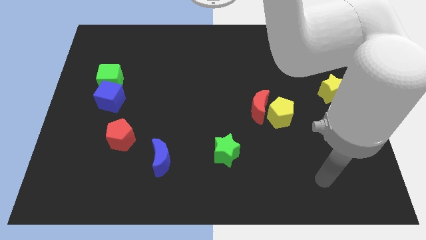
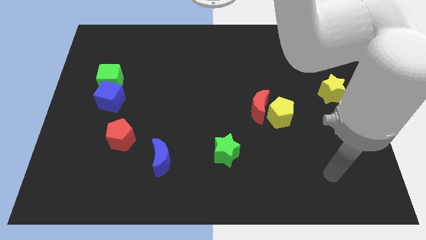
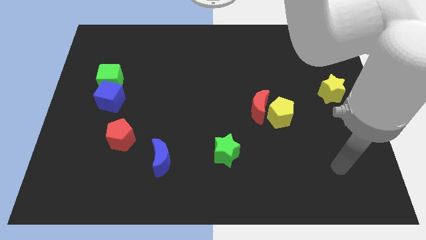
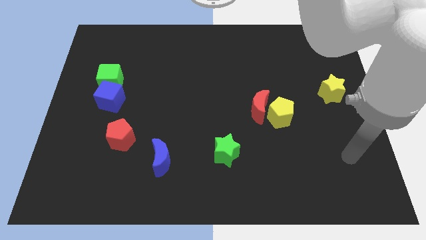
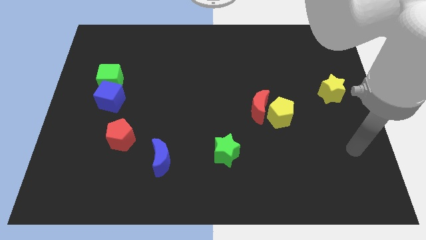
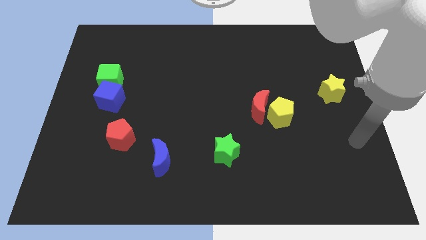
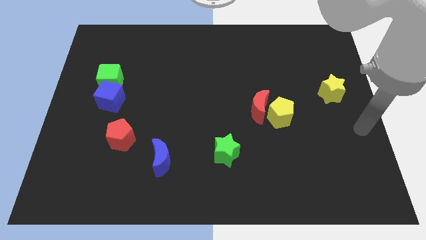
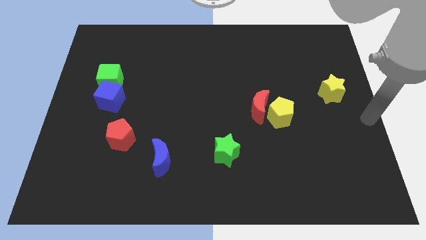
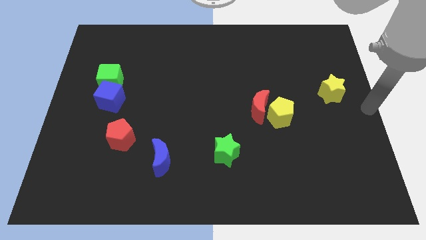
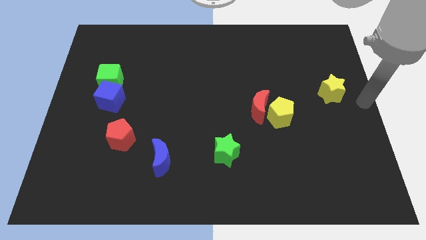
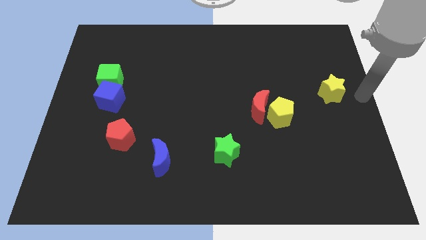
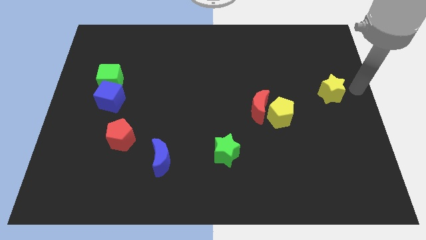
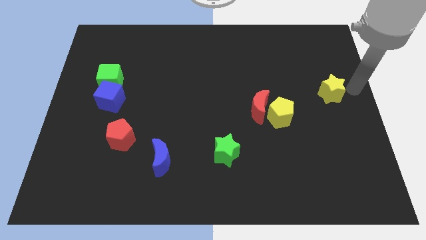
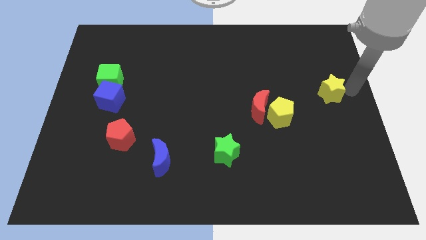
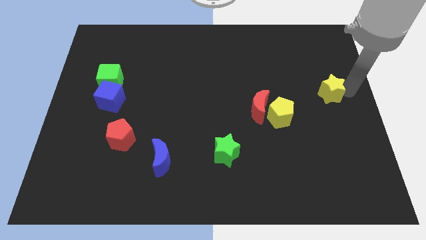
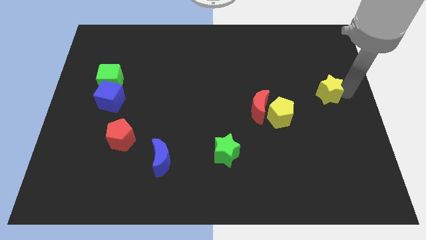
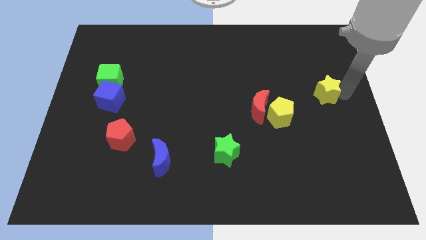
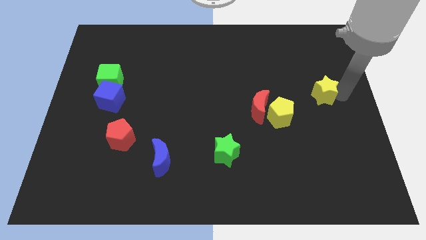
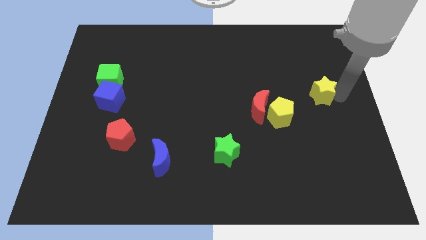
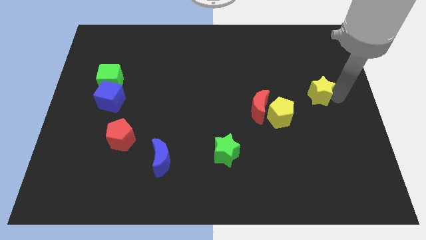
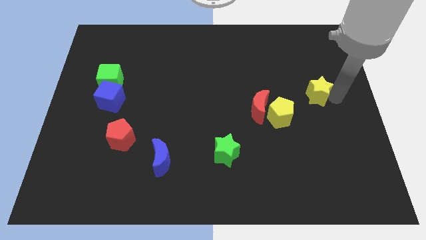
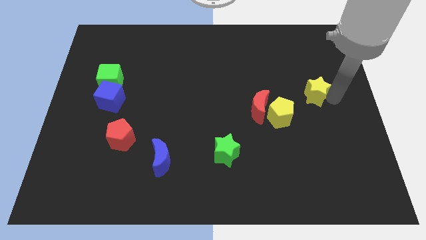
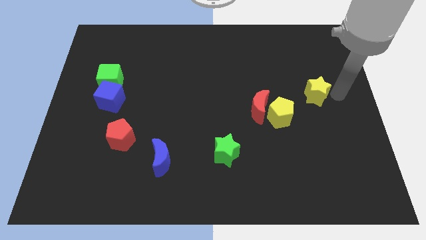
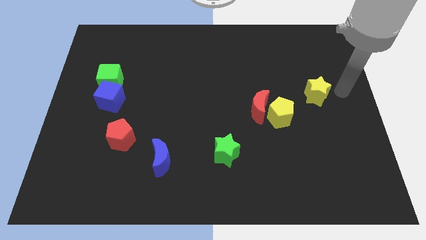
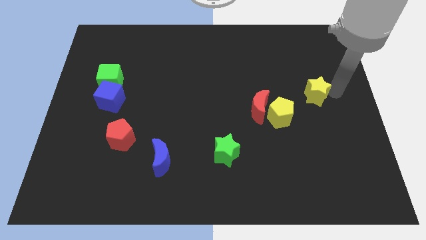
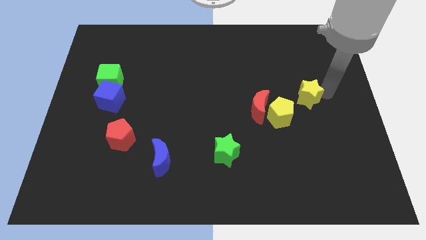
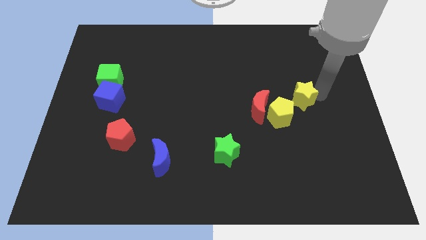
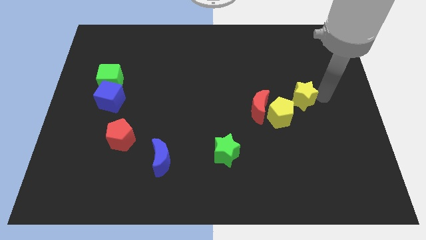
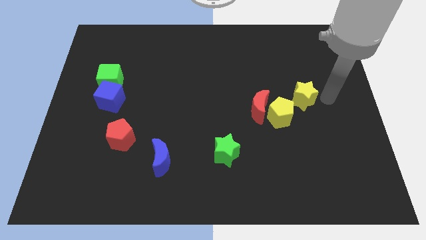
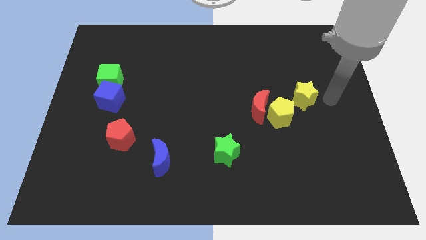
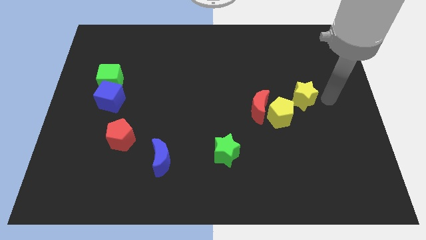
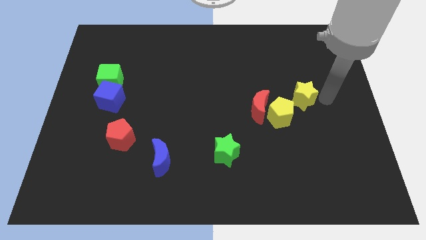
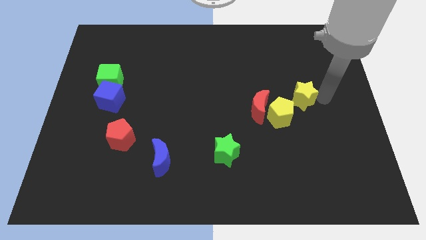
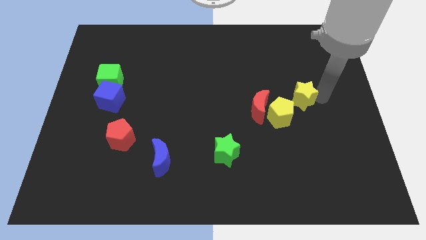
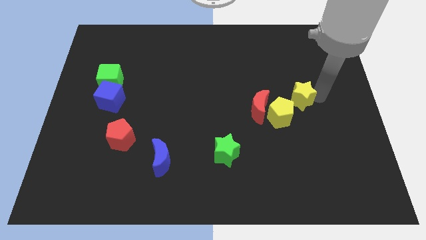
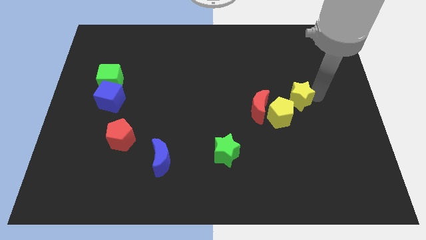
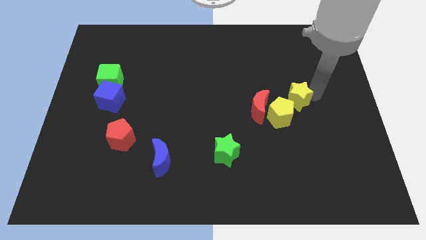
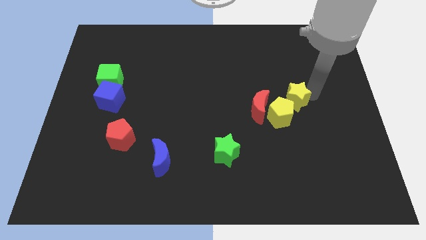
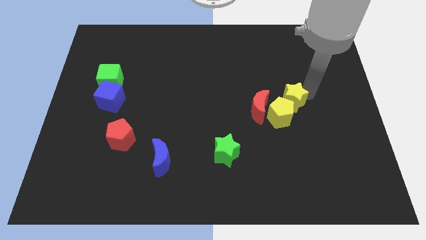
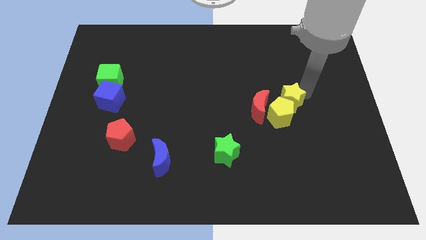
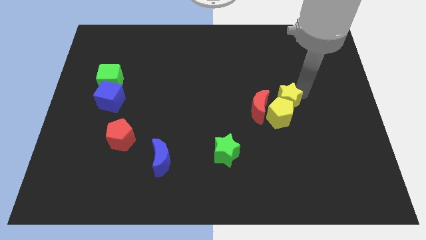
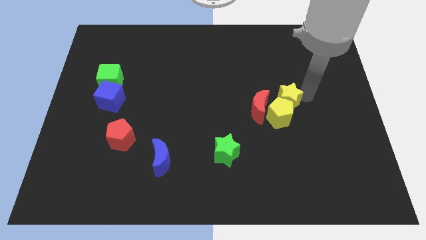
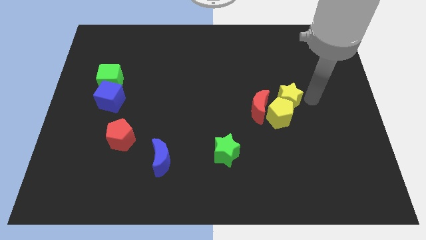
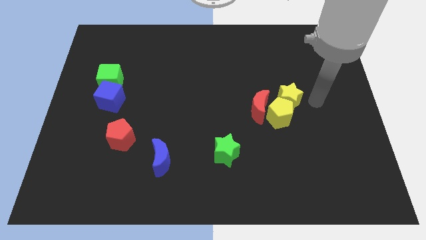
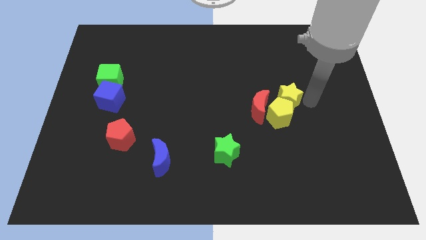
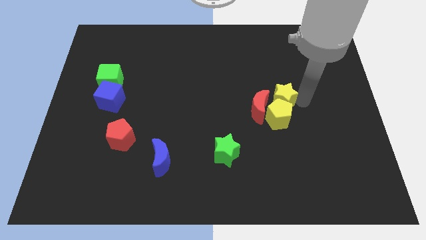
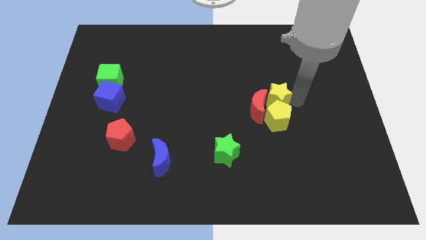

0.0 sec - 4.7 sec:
put the yellow star close to the red moon

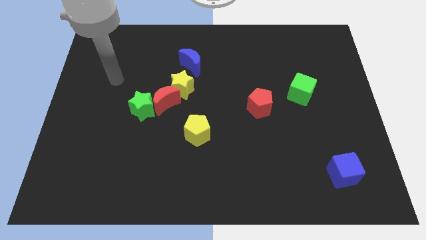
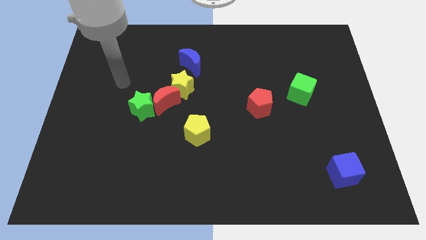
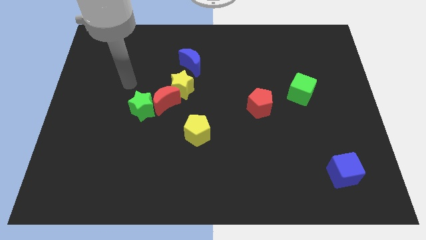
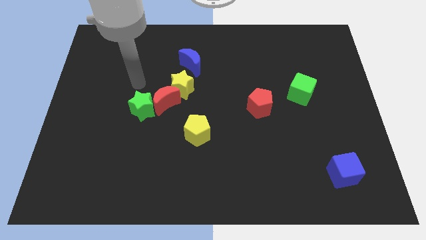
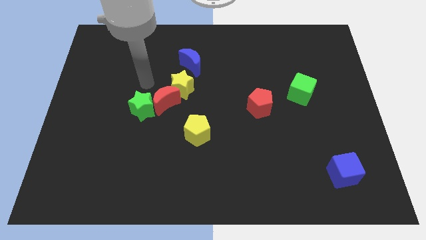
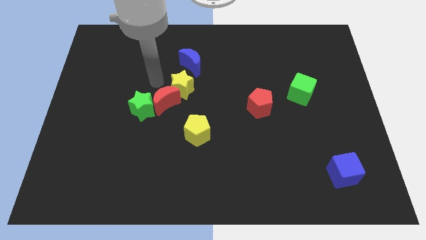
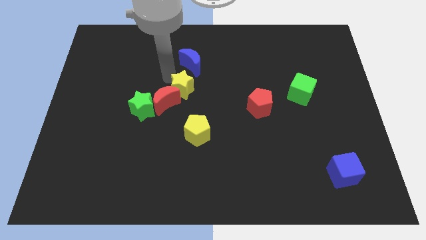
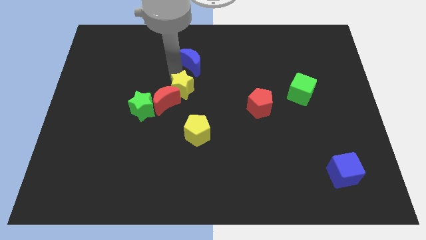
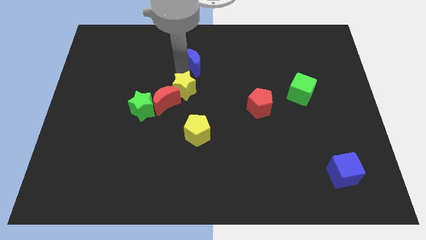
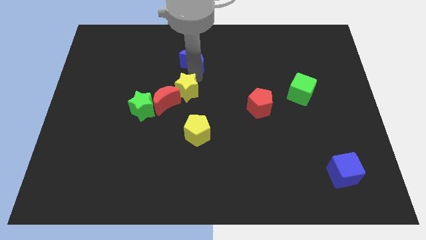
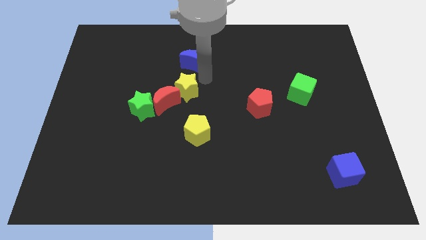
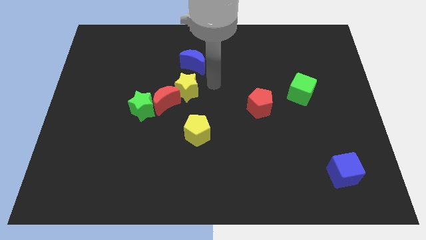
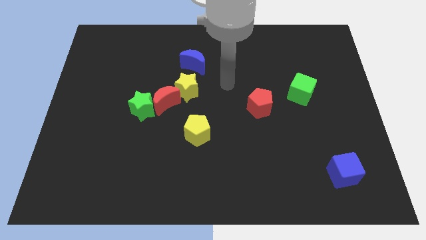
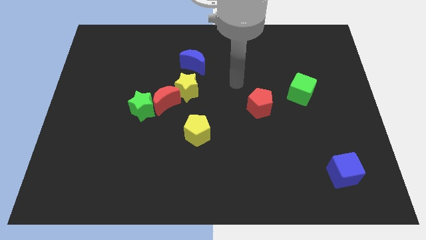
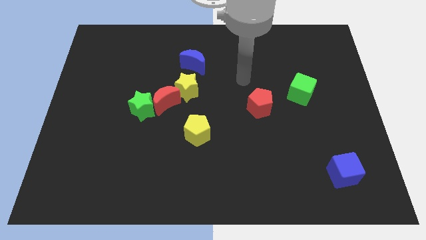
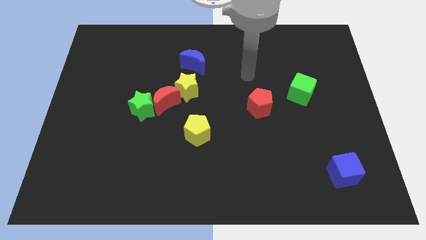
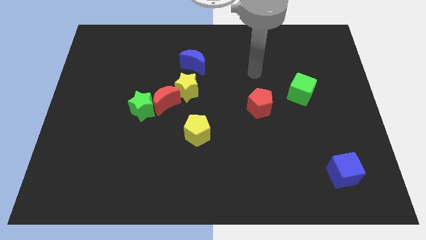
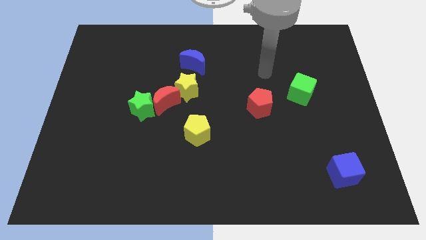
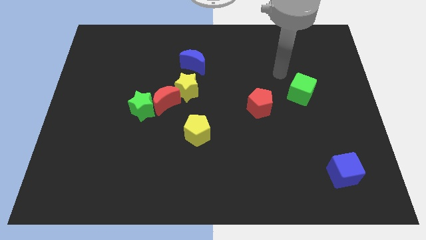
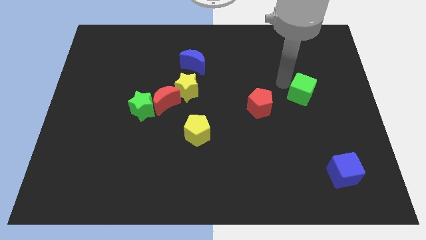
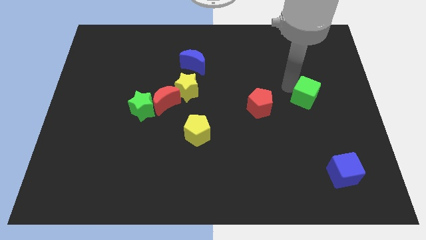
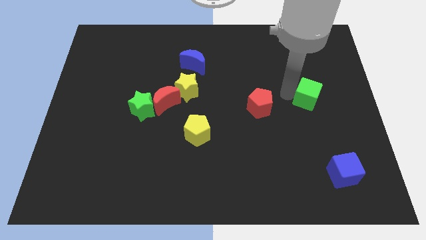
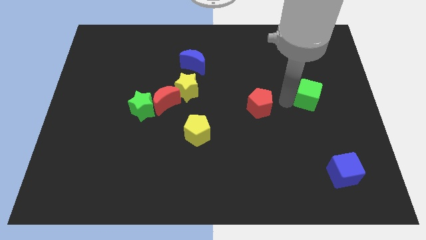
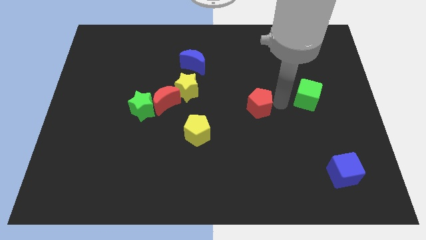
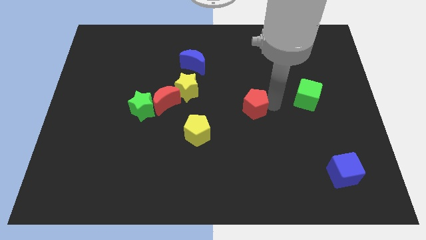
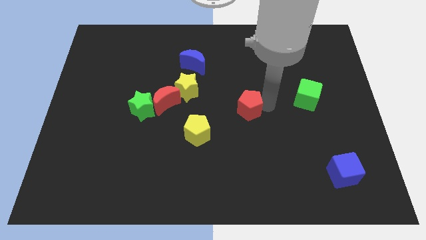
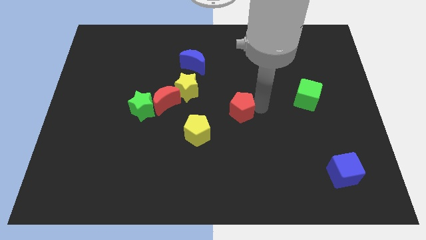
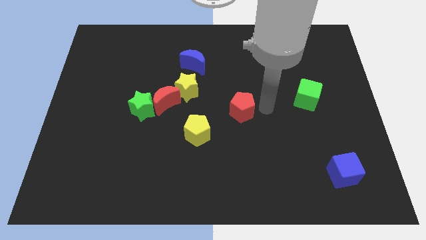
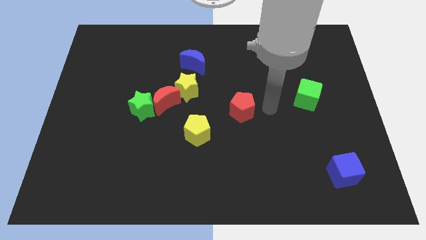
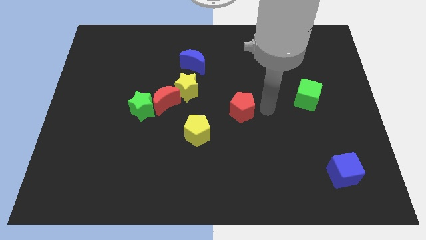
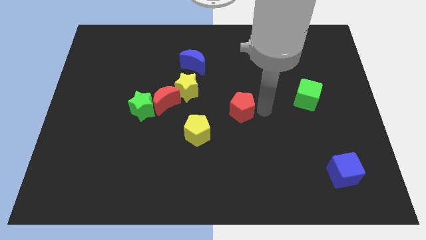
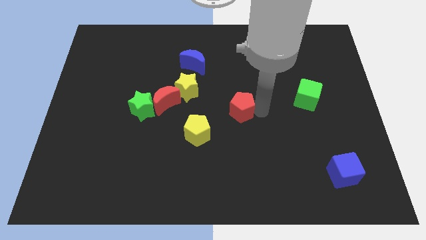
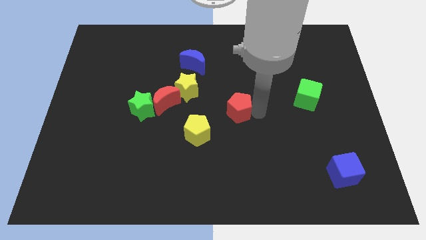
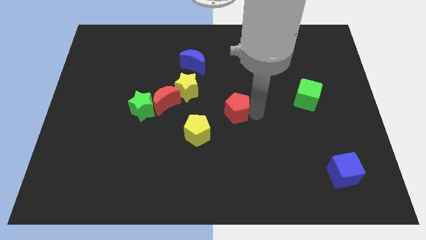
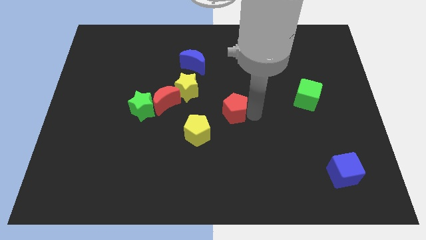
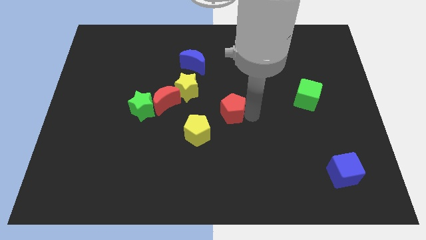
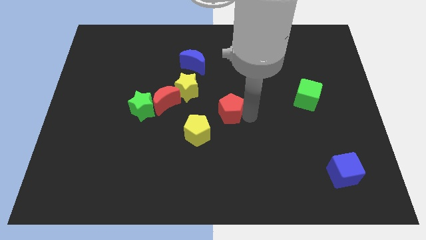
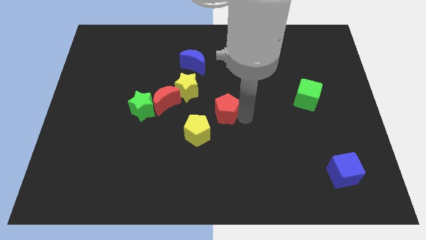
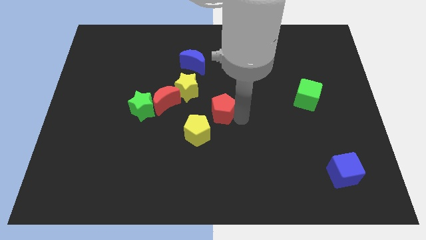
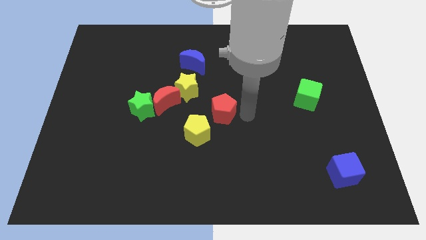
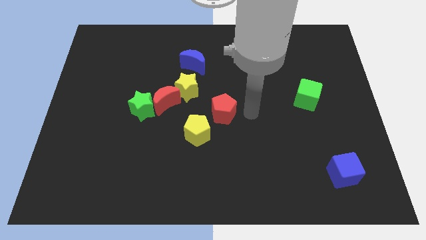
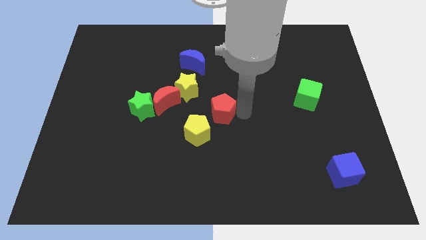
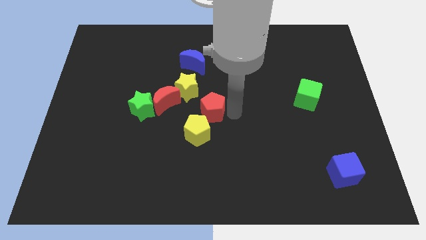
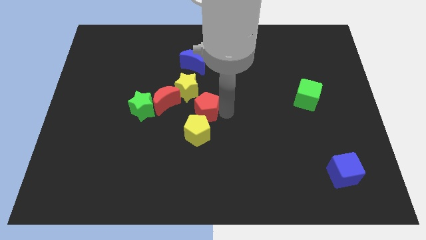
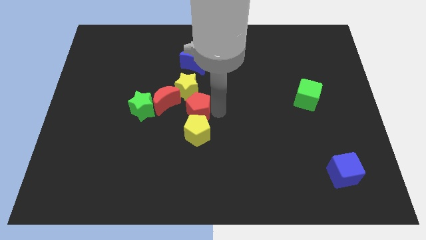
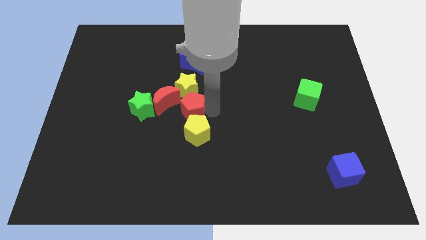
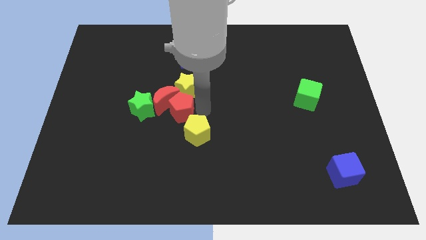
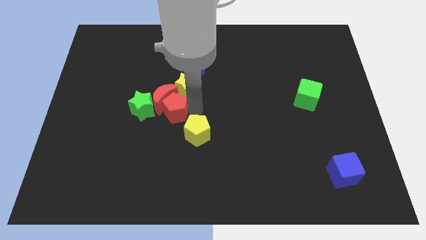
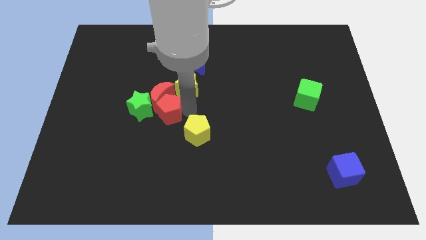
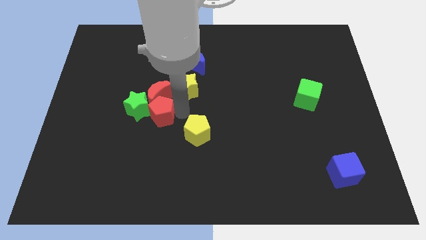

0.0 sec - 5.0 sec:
push the red pentagon next to the green star
